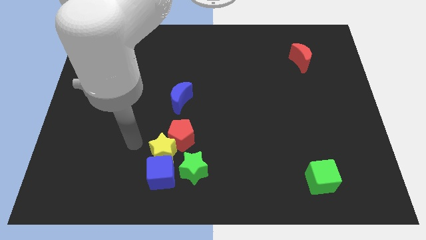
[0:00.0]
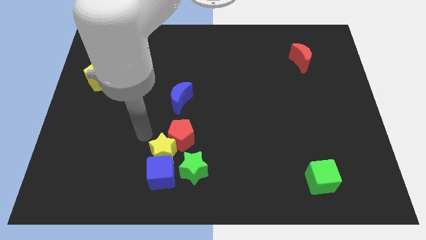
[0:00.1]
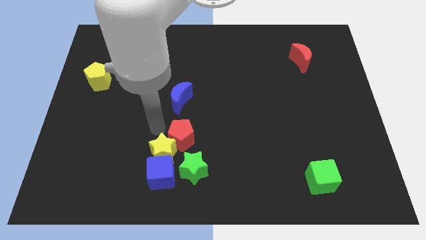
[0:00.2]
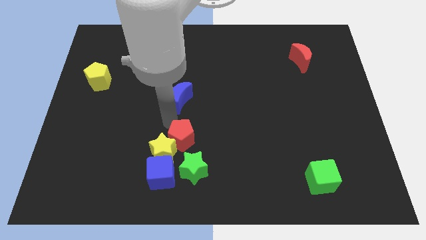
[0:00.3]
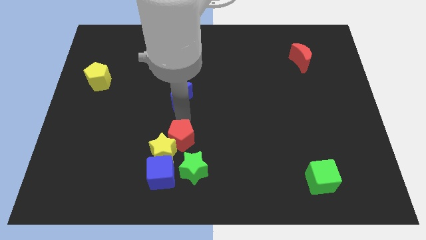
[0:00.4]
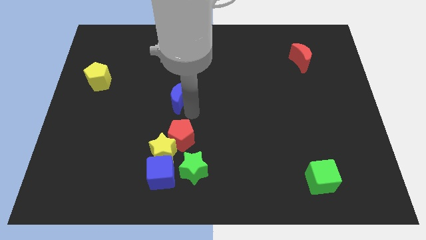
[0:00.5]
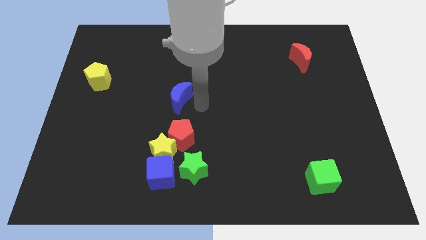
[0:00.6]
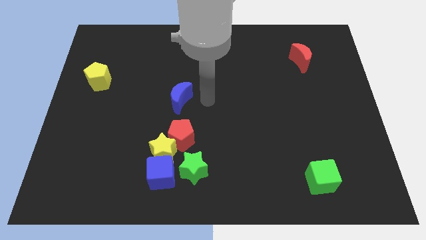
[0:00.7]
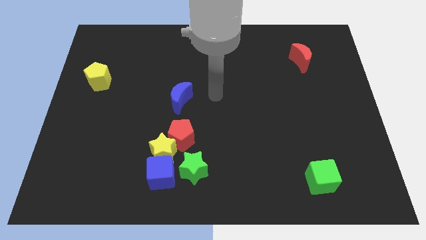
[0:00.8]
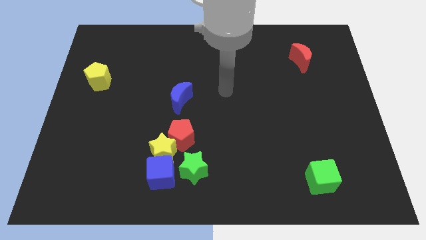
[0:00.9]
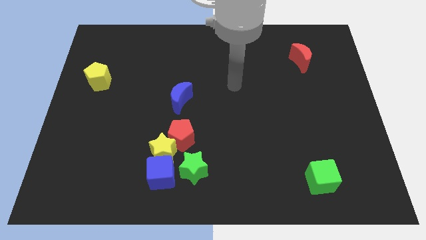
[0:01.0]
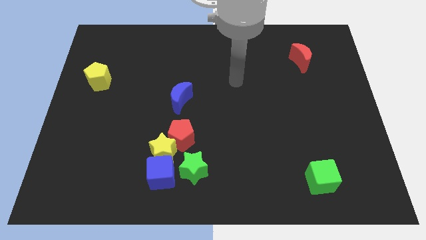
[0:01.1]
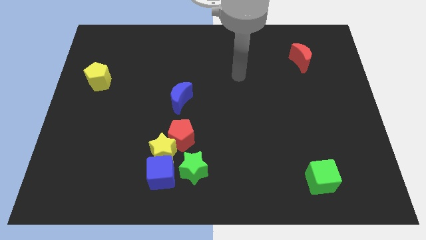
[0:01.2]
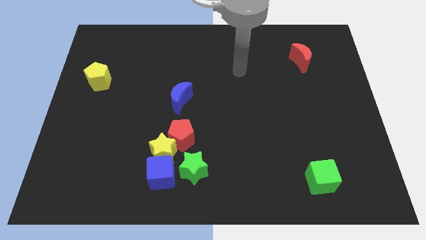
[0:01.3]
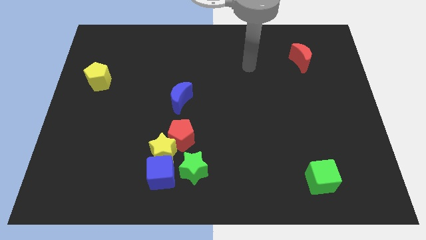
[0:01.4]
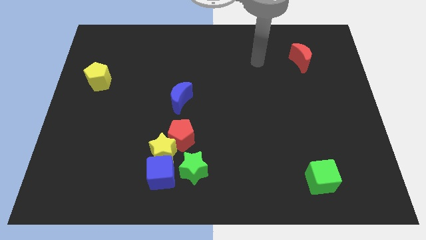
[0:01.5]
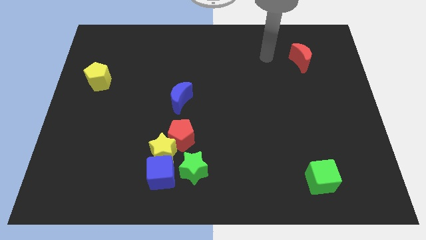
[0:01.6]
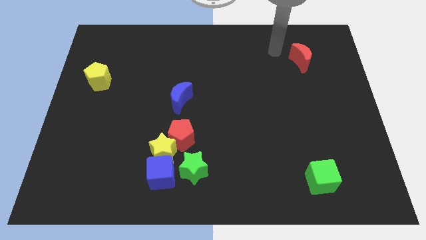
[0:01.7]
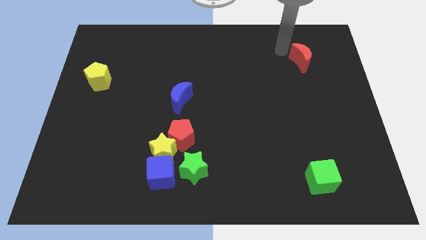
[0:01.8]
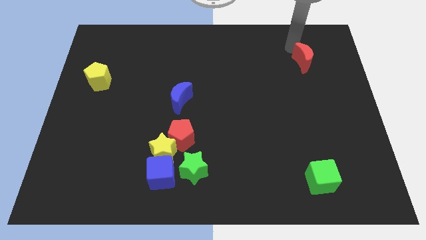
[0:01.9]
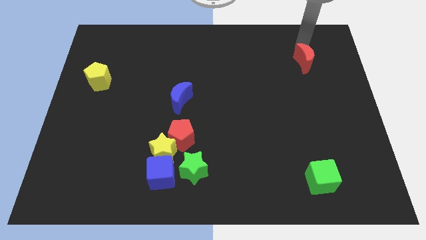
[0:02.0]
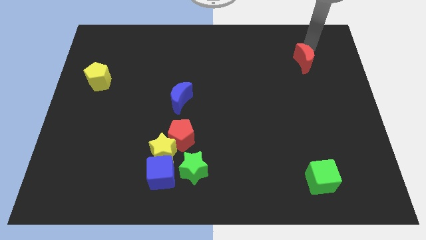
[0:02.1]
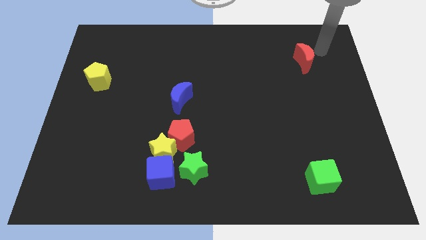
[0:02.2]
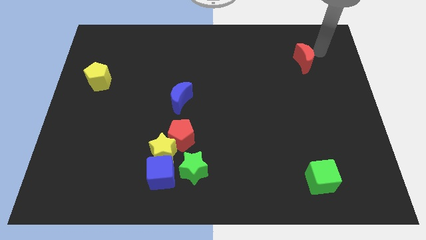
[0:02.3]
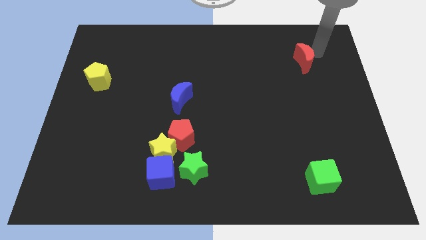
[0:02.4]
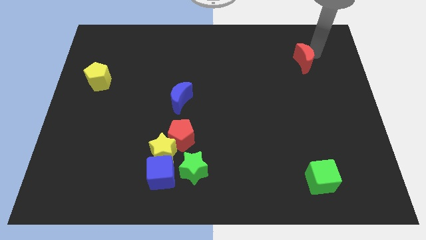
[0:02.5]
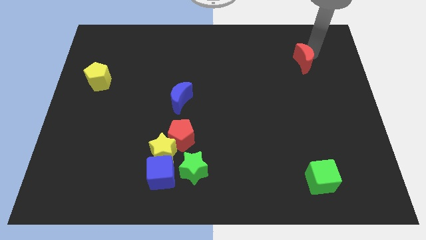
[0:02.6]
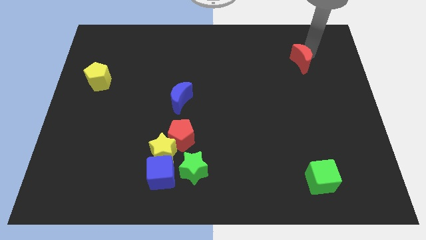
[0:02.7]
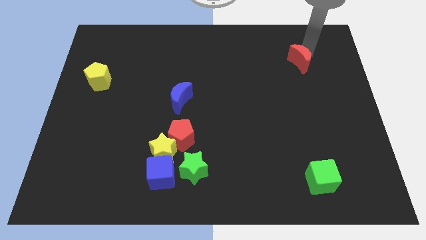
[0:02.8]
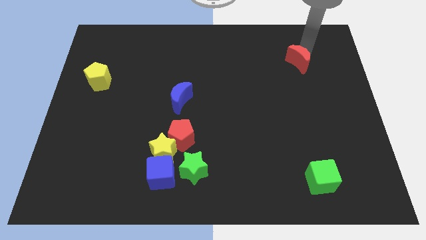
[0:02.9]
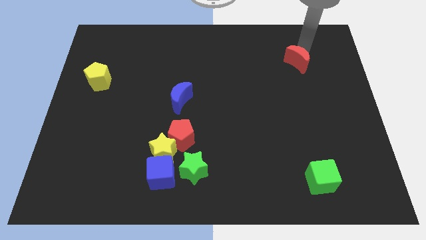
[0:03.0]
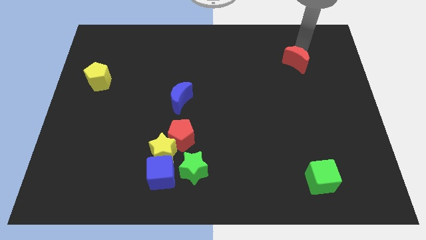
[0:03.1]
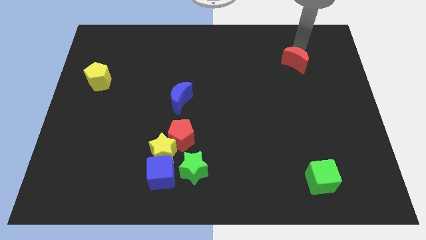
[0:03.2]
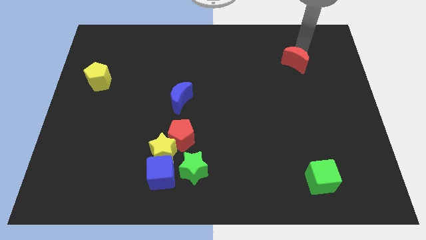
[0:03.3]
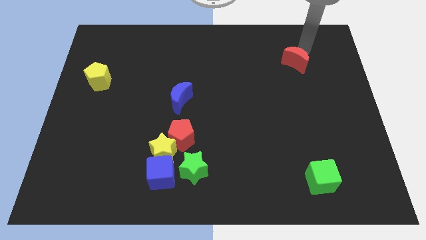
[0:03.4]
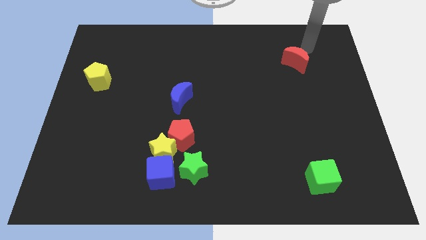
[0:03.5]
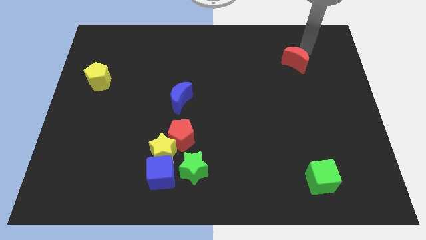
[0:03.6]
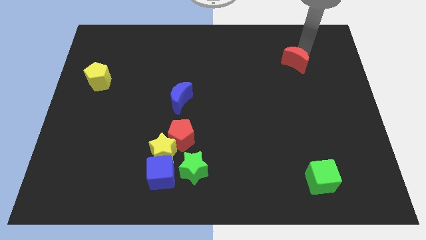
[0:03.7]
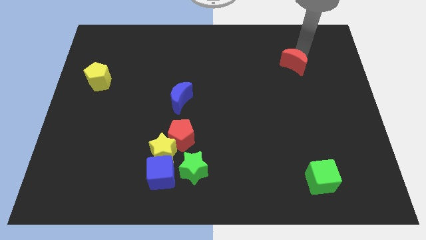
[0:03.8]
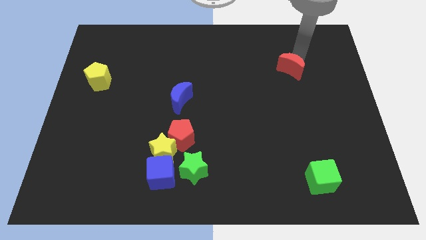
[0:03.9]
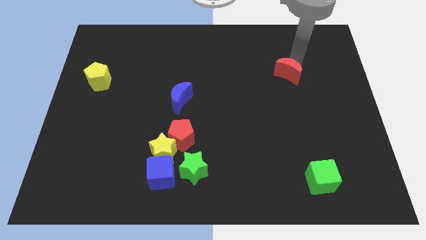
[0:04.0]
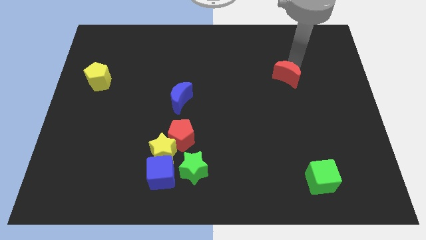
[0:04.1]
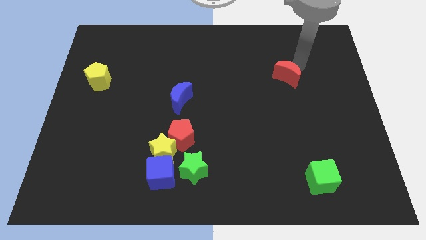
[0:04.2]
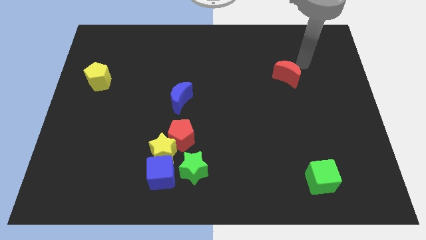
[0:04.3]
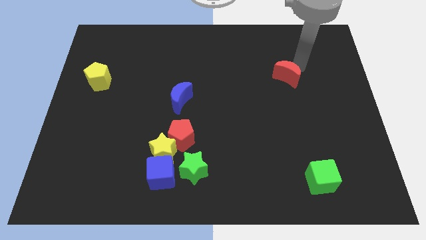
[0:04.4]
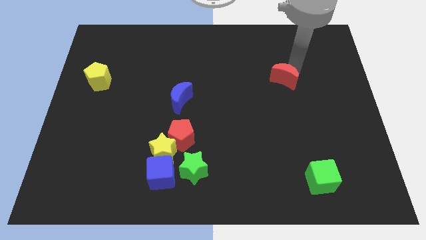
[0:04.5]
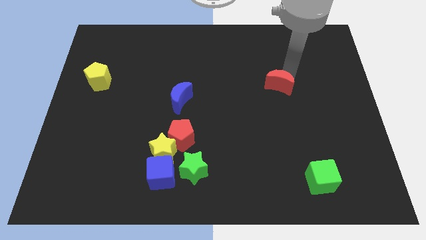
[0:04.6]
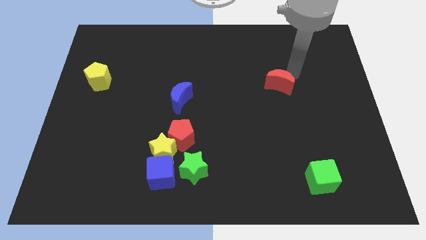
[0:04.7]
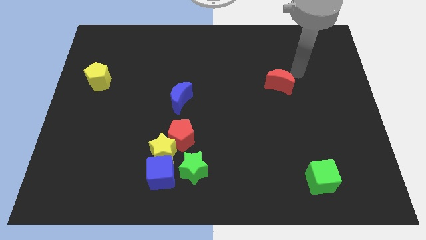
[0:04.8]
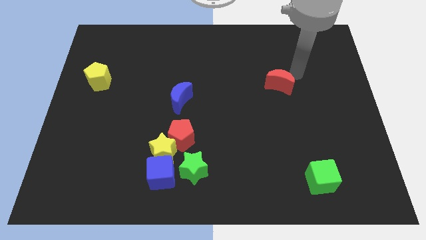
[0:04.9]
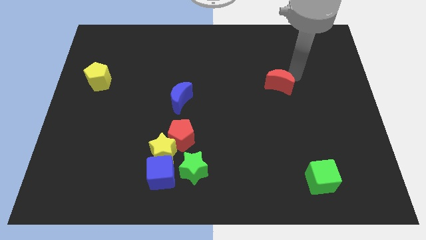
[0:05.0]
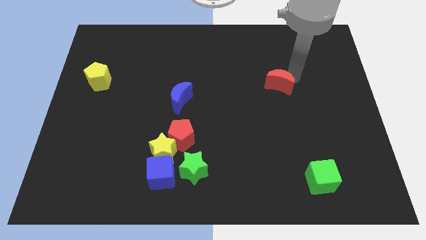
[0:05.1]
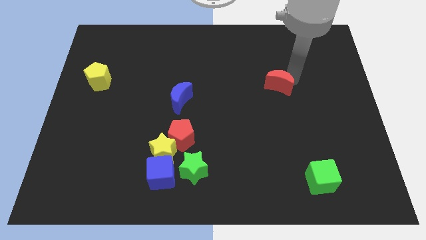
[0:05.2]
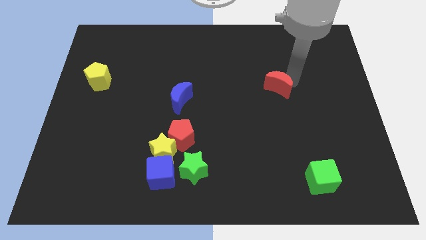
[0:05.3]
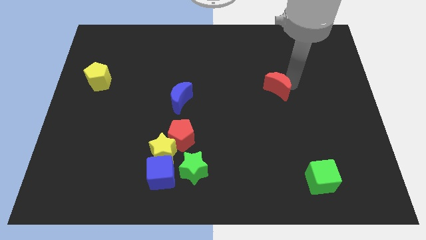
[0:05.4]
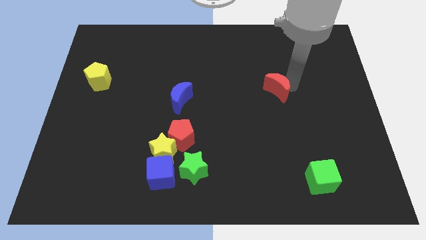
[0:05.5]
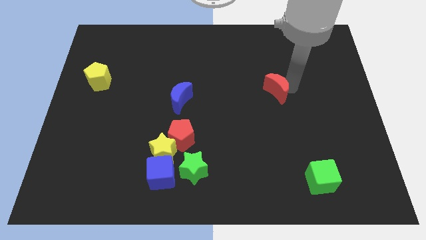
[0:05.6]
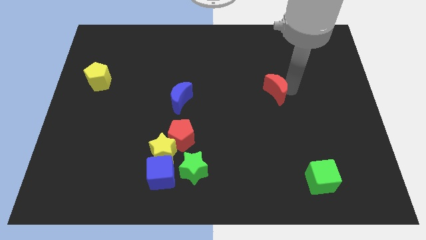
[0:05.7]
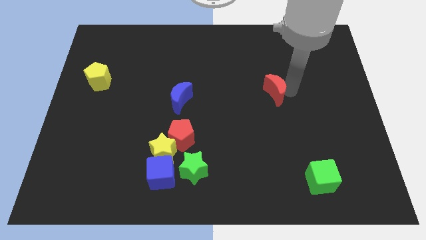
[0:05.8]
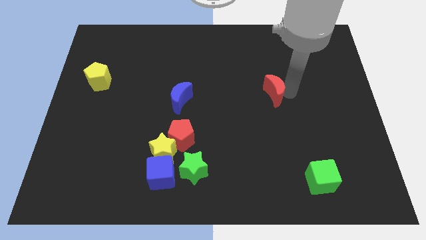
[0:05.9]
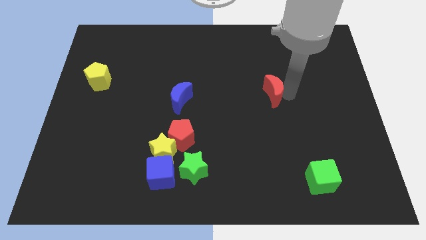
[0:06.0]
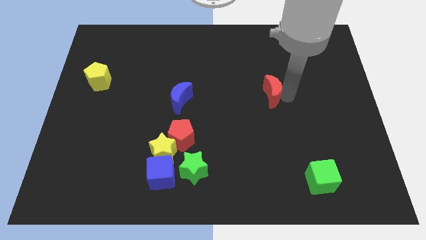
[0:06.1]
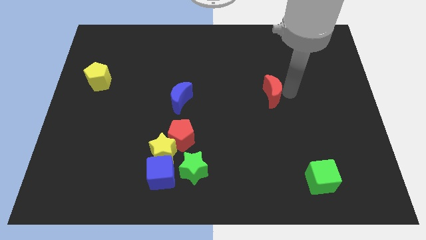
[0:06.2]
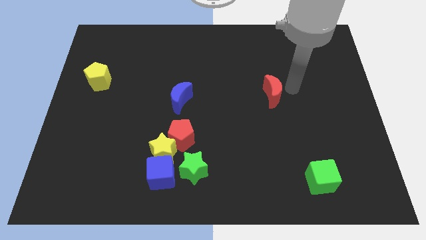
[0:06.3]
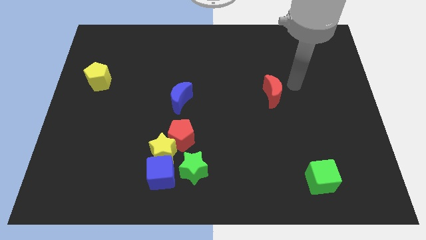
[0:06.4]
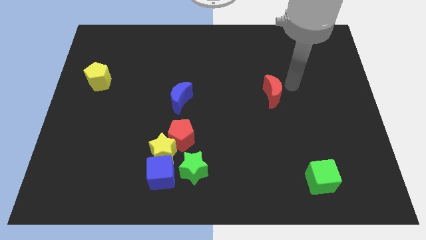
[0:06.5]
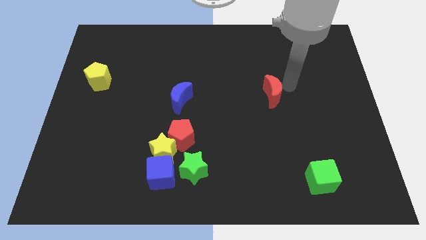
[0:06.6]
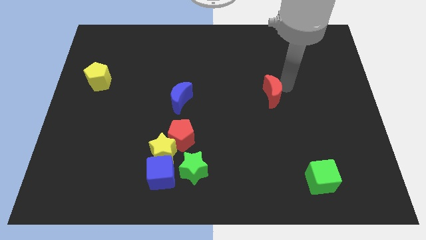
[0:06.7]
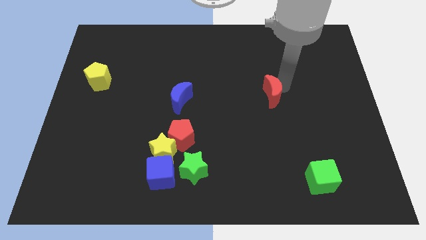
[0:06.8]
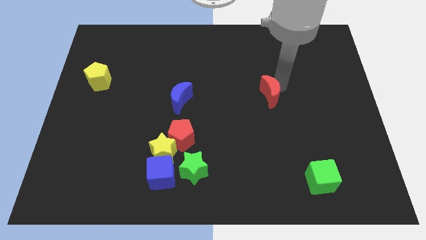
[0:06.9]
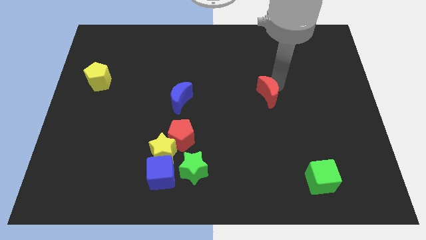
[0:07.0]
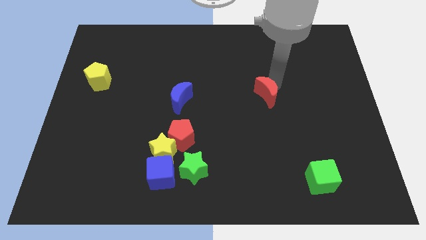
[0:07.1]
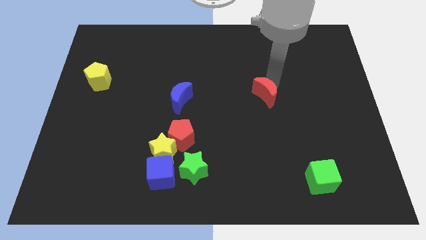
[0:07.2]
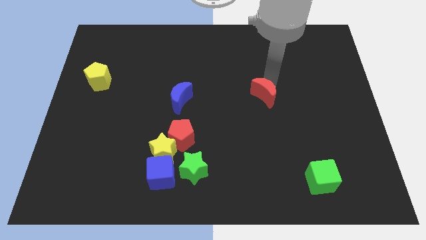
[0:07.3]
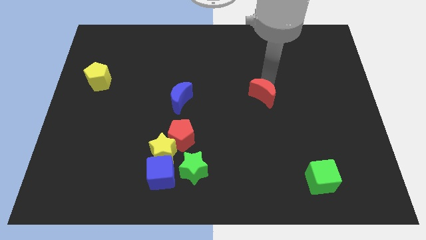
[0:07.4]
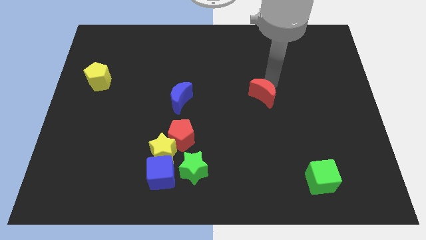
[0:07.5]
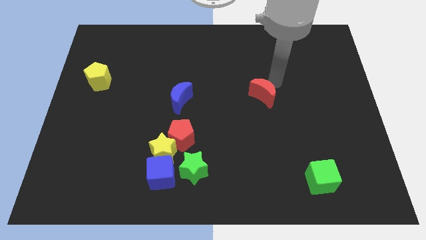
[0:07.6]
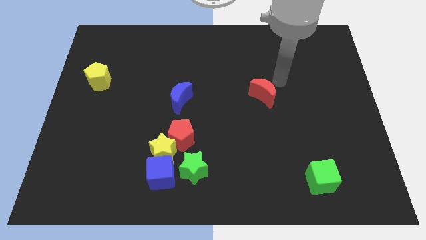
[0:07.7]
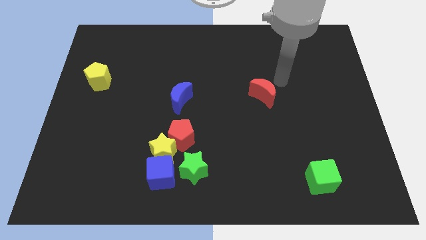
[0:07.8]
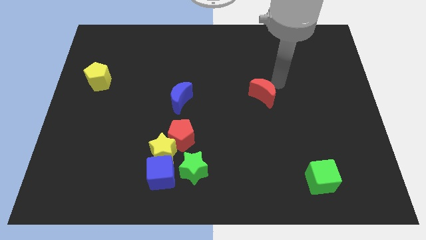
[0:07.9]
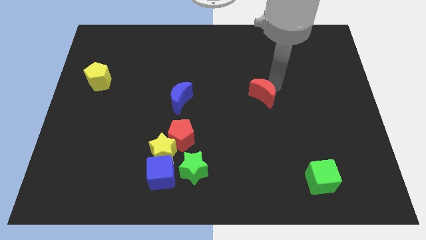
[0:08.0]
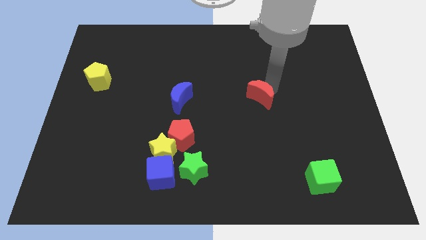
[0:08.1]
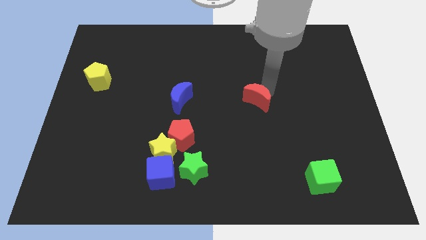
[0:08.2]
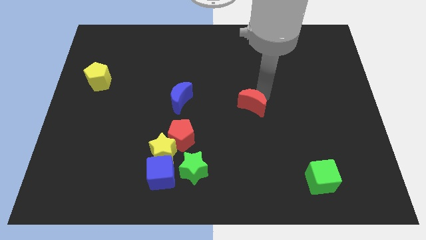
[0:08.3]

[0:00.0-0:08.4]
move the red moon down and left

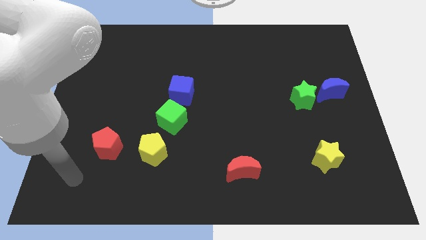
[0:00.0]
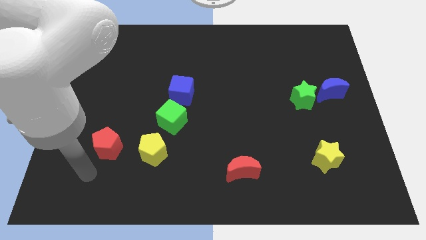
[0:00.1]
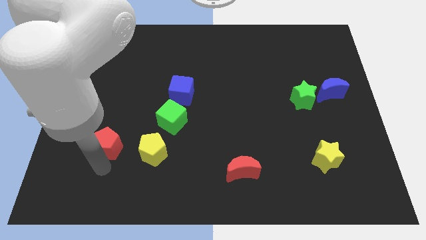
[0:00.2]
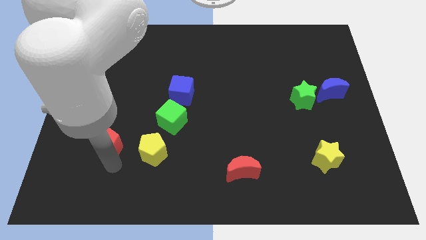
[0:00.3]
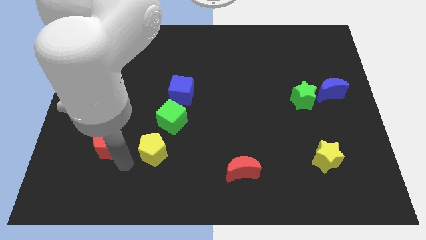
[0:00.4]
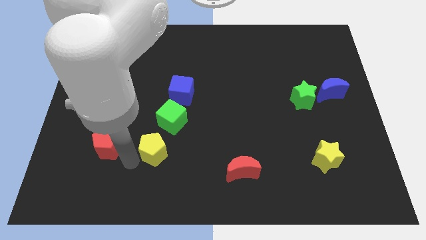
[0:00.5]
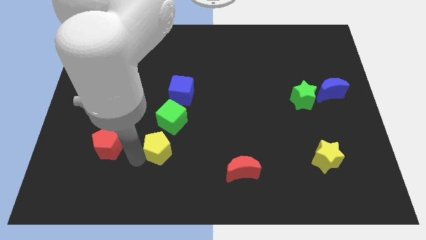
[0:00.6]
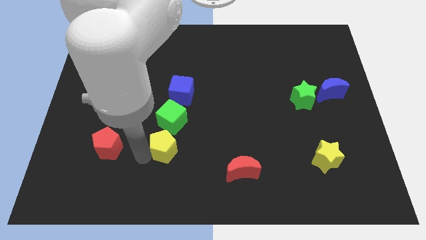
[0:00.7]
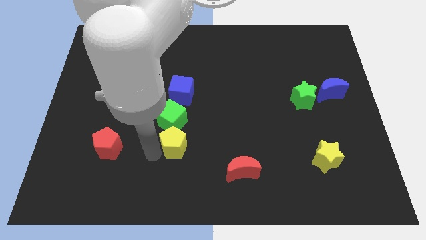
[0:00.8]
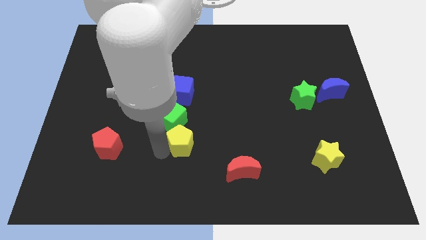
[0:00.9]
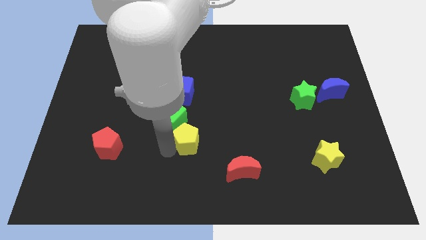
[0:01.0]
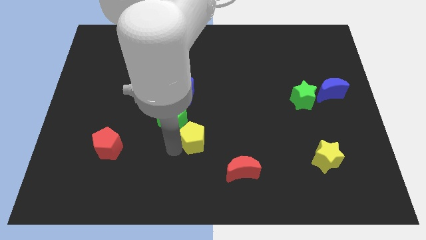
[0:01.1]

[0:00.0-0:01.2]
slide the yellow pentagon a little up and then to the right
